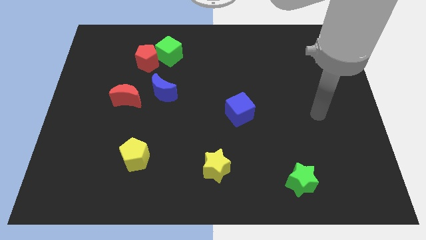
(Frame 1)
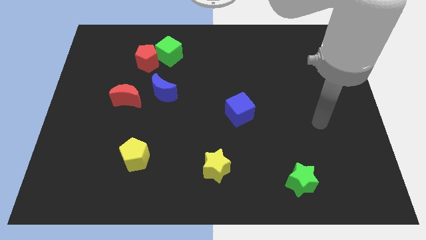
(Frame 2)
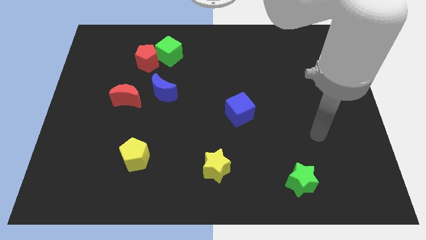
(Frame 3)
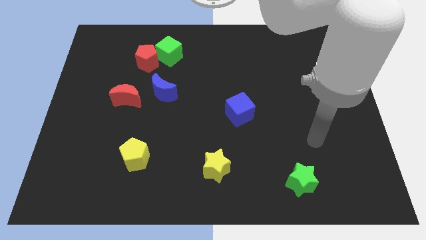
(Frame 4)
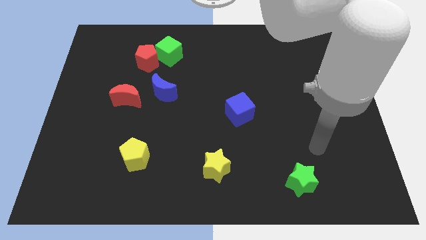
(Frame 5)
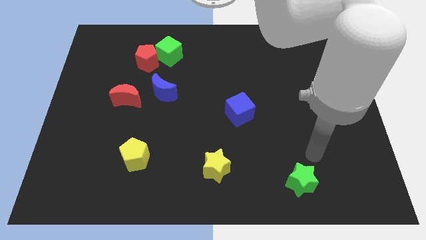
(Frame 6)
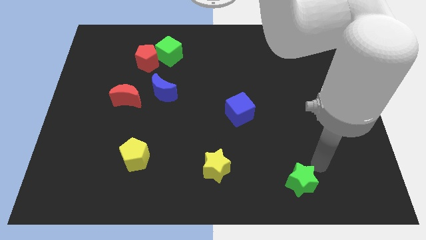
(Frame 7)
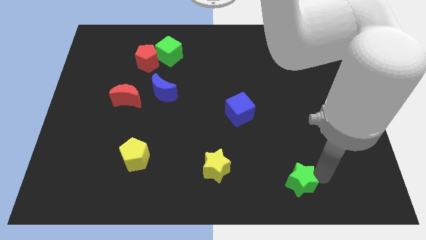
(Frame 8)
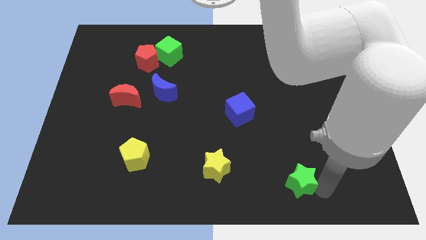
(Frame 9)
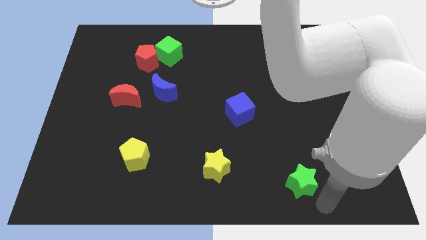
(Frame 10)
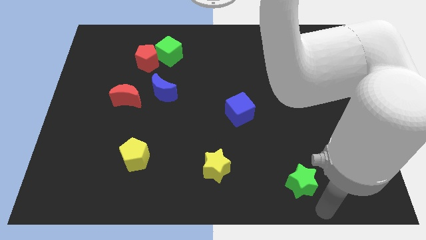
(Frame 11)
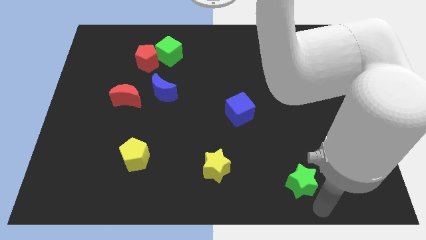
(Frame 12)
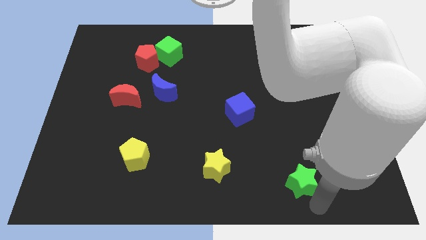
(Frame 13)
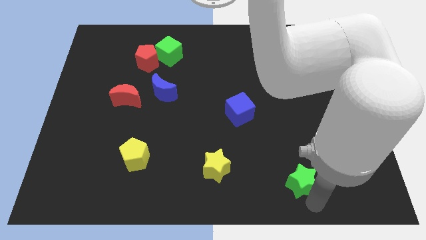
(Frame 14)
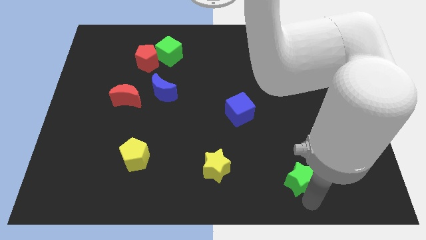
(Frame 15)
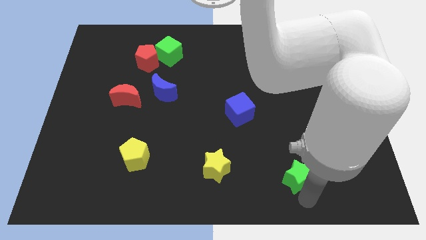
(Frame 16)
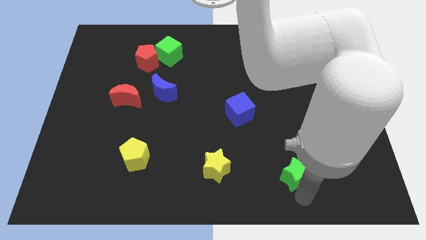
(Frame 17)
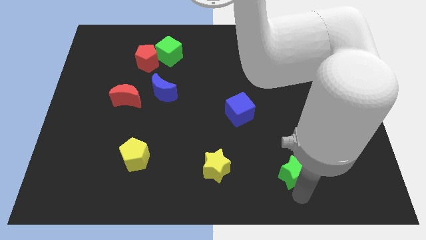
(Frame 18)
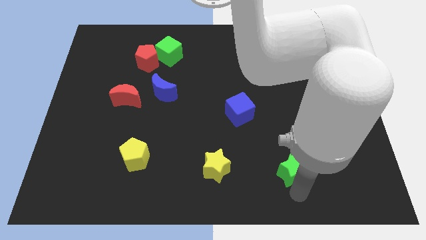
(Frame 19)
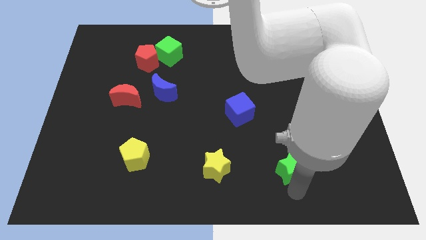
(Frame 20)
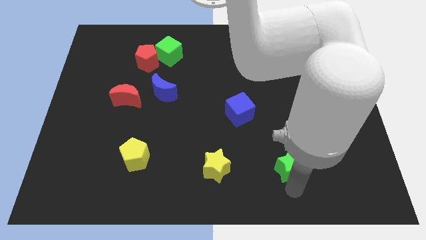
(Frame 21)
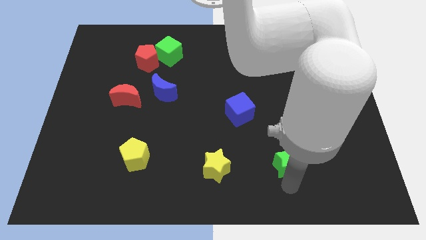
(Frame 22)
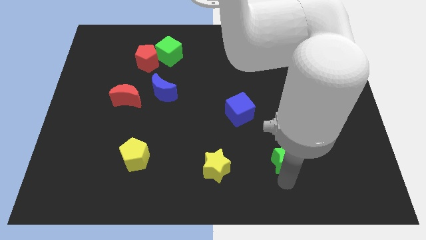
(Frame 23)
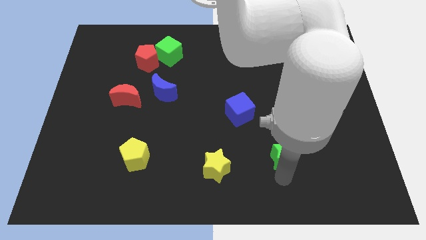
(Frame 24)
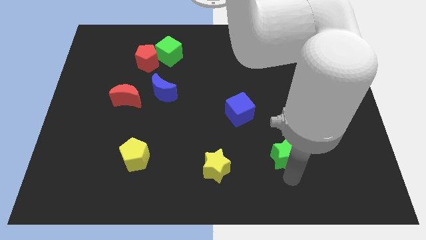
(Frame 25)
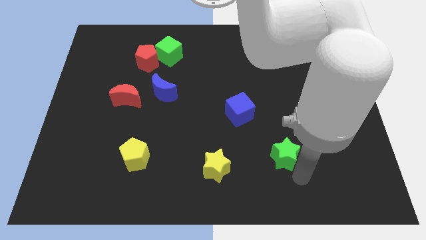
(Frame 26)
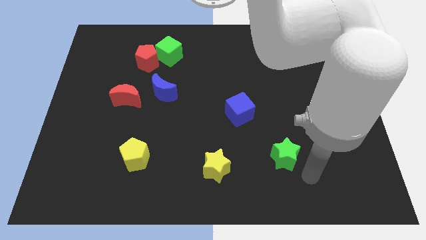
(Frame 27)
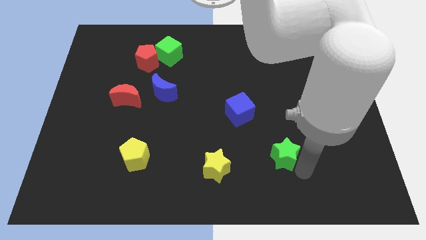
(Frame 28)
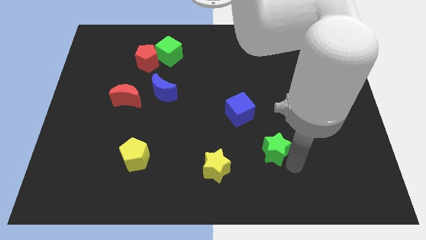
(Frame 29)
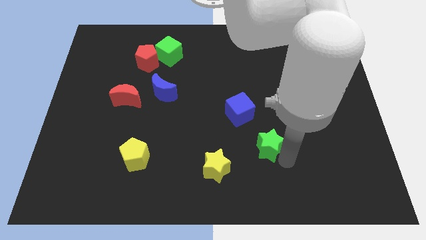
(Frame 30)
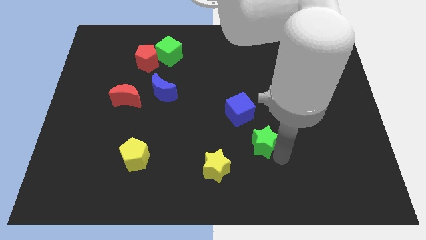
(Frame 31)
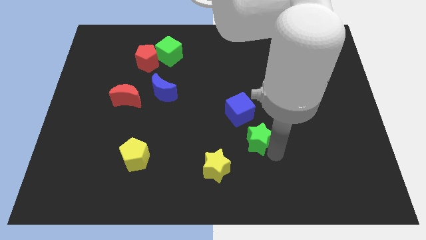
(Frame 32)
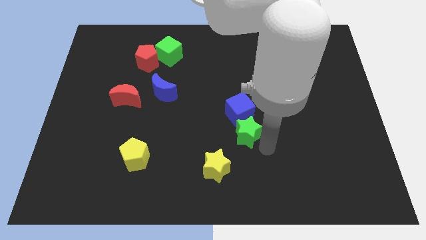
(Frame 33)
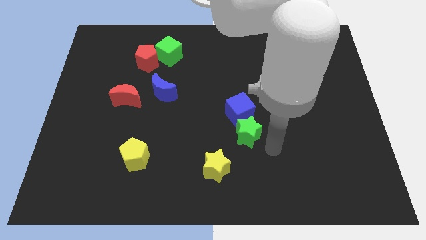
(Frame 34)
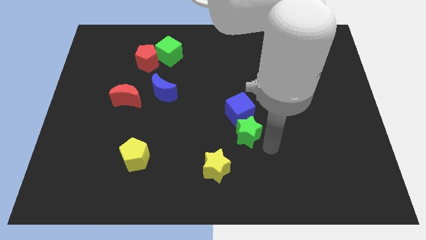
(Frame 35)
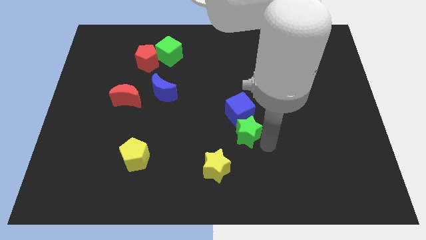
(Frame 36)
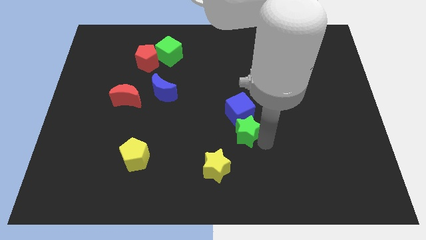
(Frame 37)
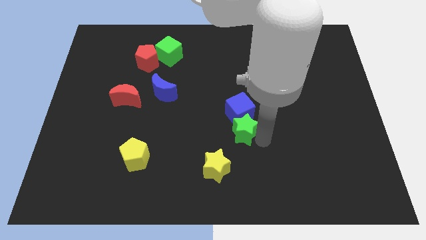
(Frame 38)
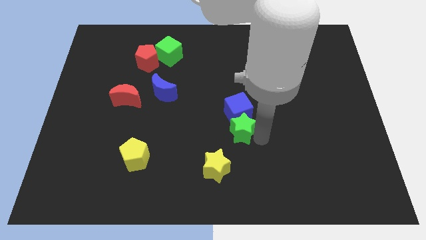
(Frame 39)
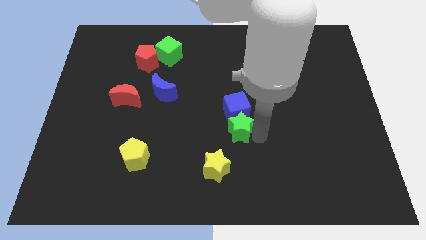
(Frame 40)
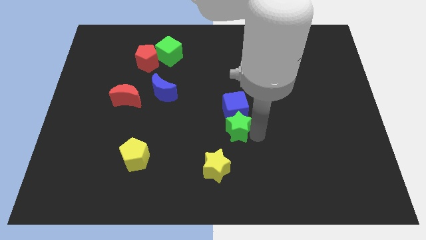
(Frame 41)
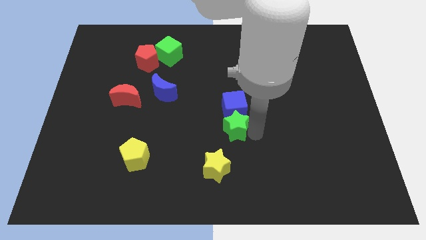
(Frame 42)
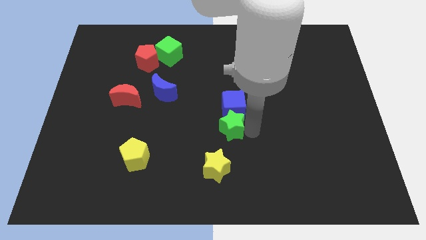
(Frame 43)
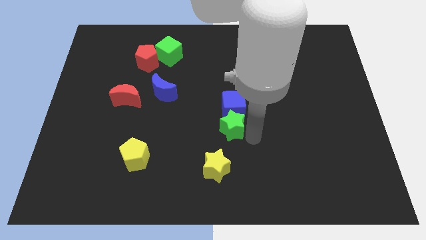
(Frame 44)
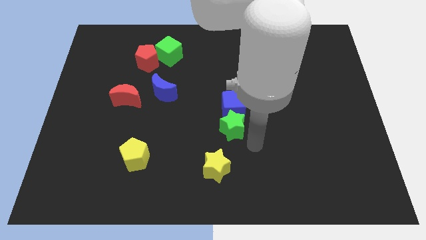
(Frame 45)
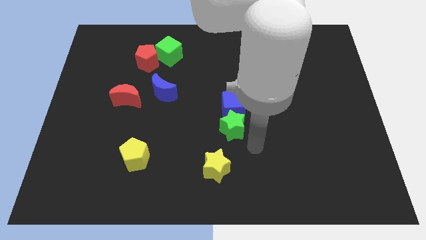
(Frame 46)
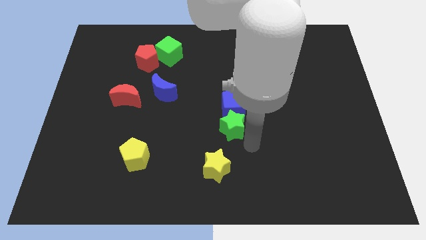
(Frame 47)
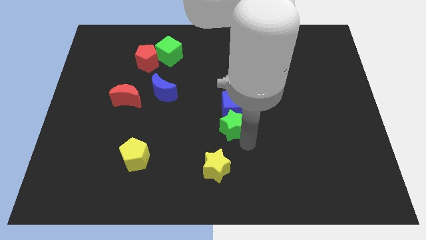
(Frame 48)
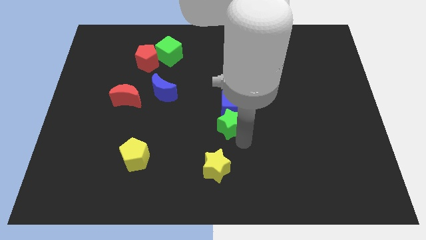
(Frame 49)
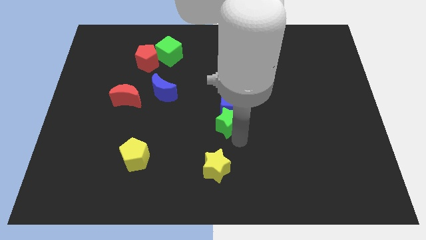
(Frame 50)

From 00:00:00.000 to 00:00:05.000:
move the green star diagonally upwards and to the left

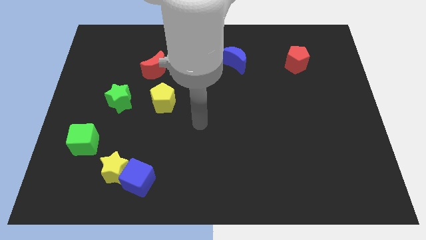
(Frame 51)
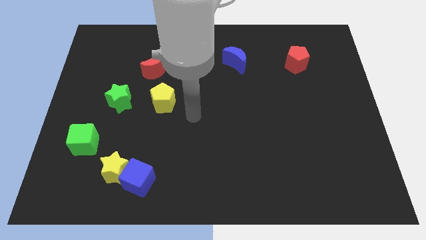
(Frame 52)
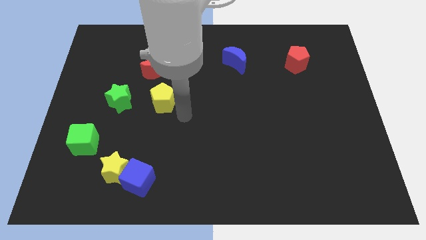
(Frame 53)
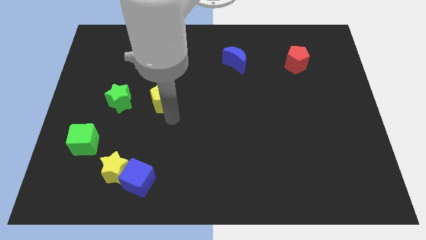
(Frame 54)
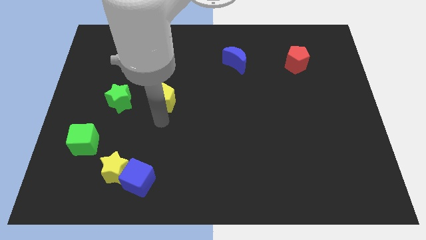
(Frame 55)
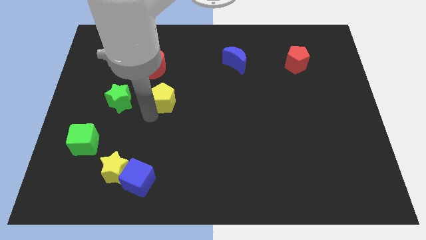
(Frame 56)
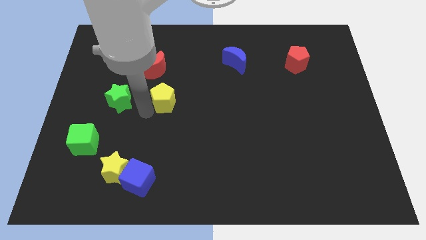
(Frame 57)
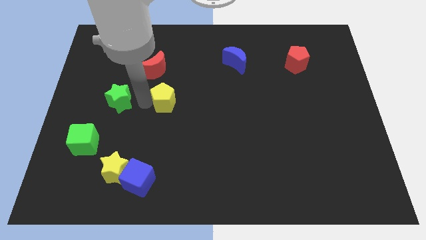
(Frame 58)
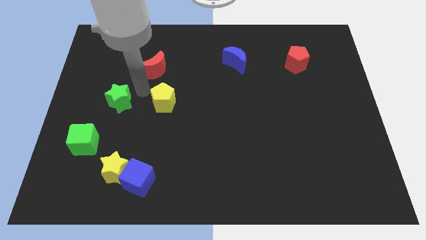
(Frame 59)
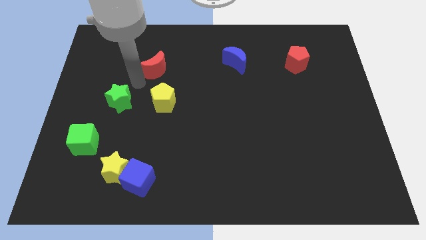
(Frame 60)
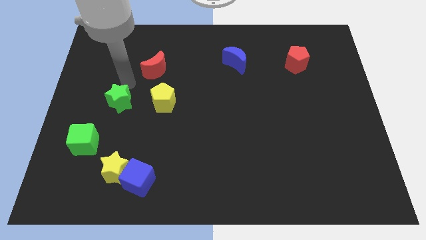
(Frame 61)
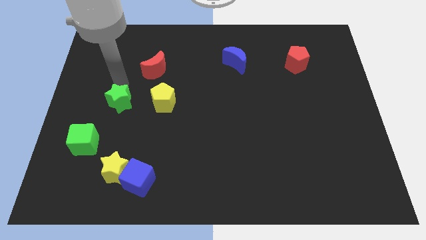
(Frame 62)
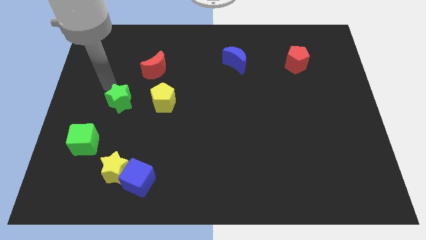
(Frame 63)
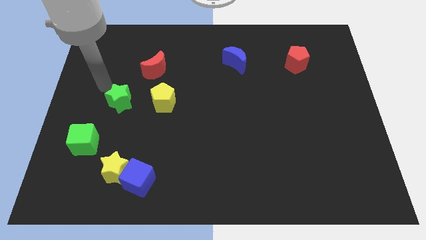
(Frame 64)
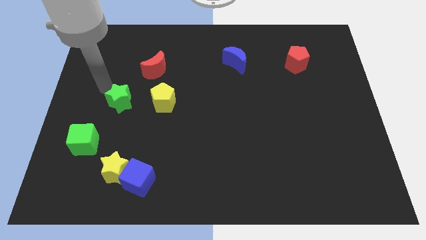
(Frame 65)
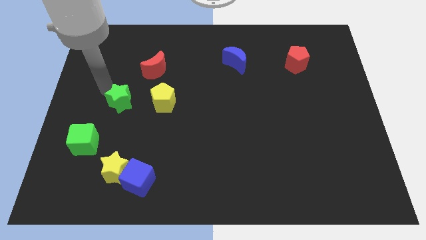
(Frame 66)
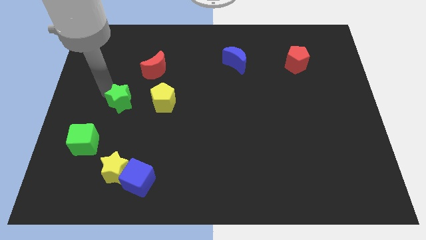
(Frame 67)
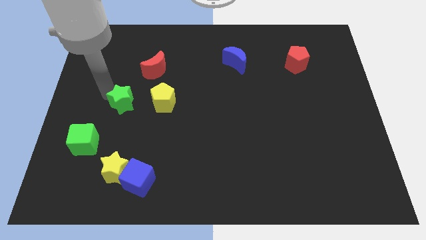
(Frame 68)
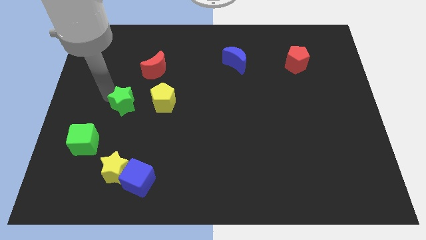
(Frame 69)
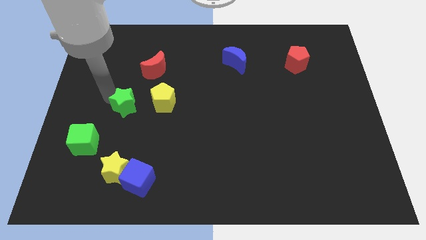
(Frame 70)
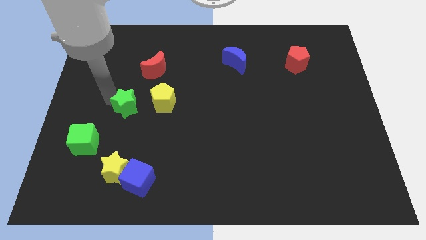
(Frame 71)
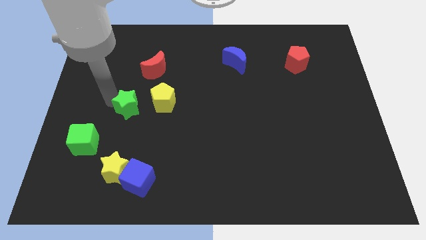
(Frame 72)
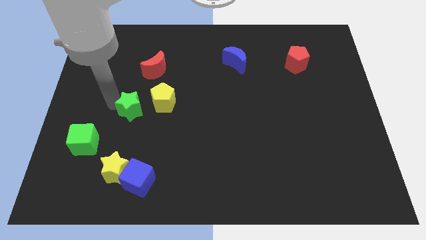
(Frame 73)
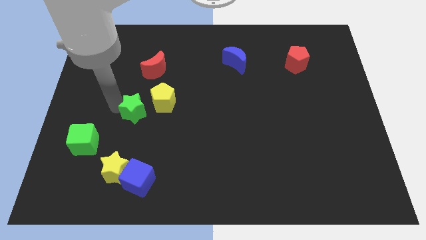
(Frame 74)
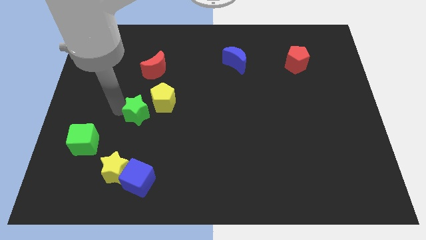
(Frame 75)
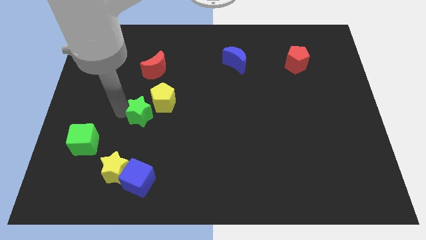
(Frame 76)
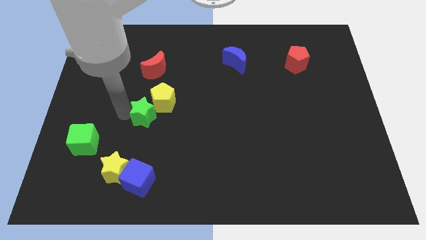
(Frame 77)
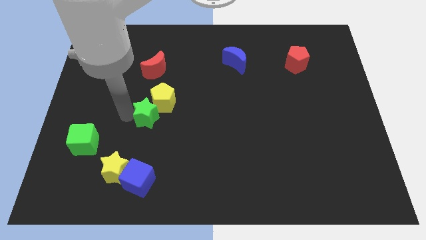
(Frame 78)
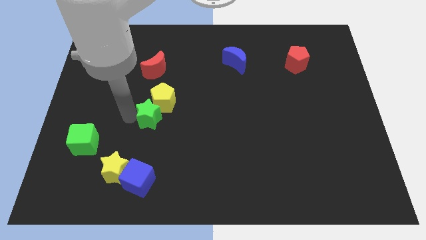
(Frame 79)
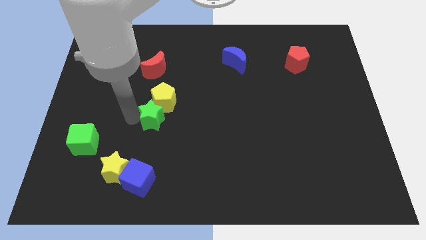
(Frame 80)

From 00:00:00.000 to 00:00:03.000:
slide the green star a little bit right
